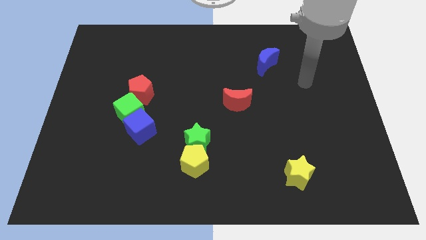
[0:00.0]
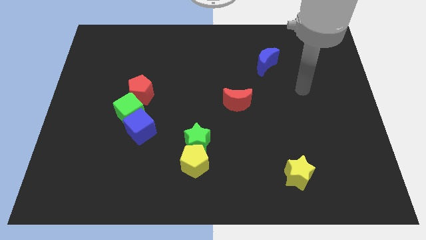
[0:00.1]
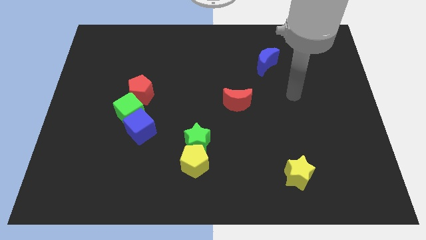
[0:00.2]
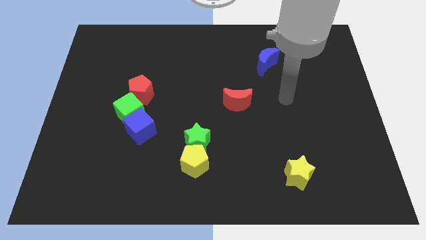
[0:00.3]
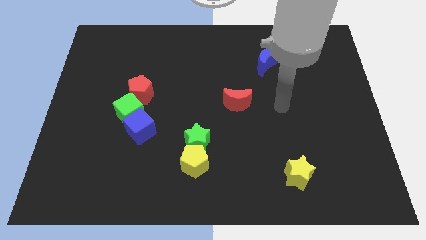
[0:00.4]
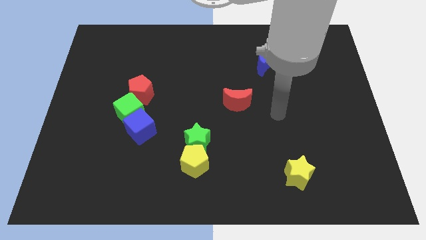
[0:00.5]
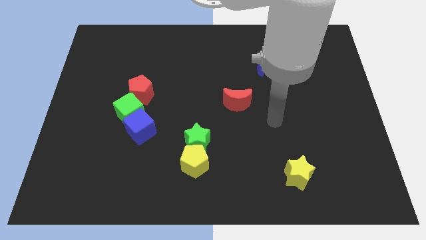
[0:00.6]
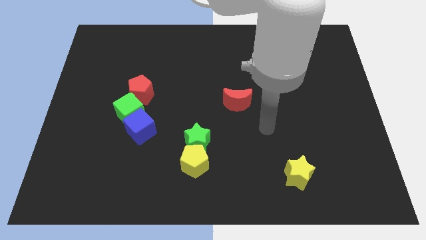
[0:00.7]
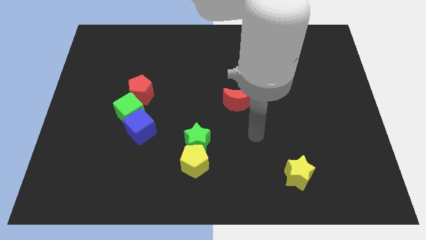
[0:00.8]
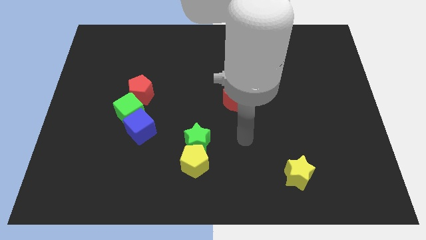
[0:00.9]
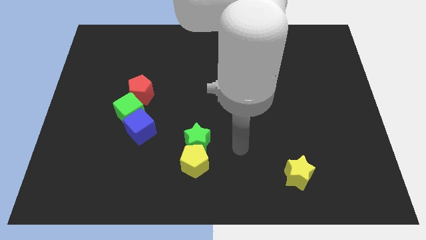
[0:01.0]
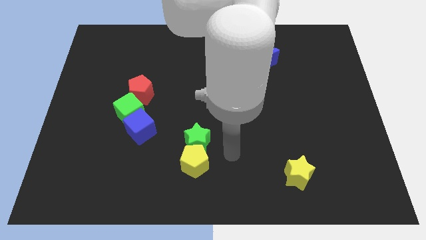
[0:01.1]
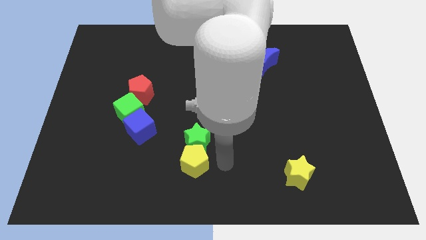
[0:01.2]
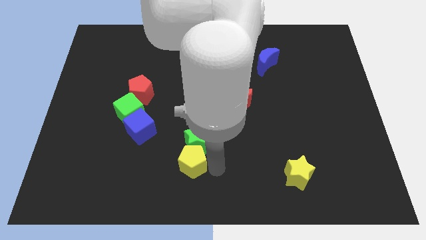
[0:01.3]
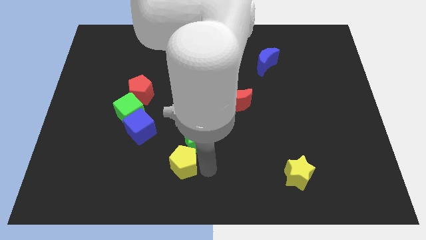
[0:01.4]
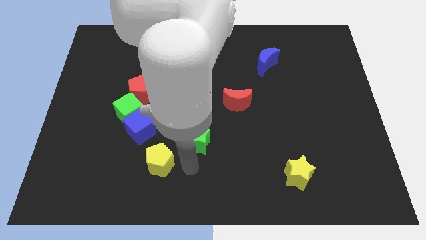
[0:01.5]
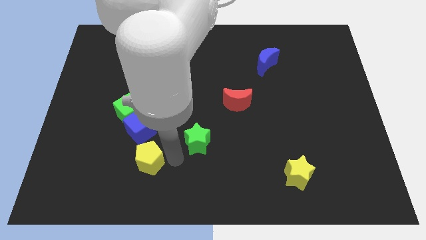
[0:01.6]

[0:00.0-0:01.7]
move the green star away from the yellow pentagon

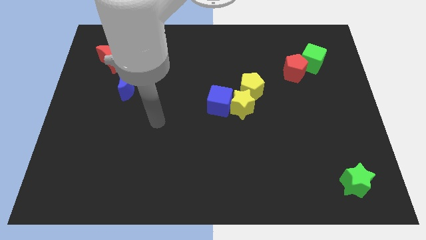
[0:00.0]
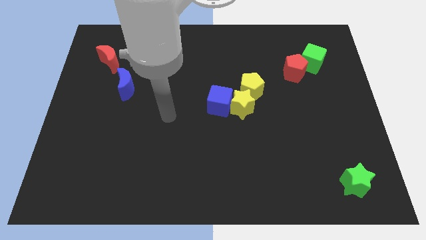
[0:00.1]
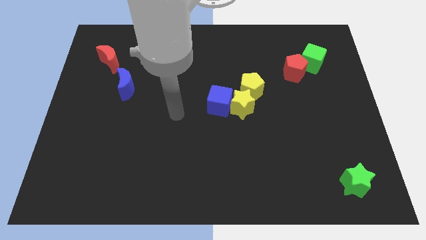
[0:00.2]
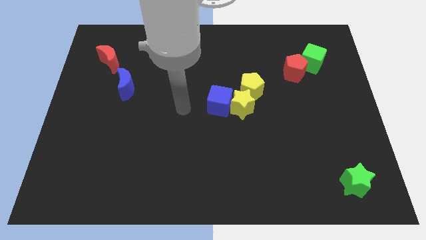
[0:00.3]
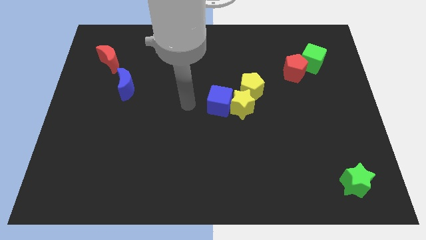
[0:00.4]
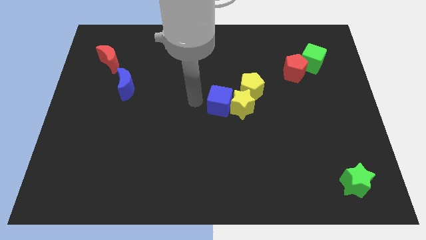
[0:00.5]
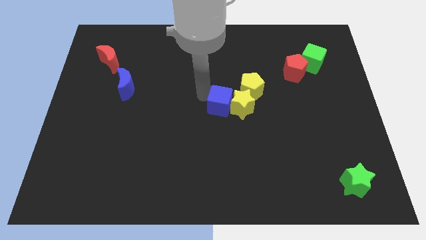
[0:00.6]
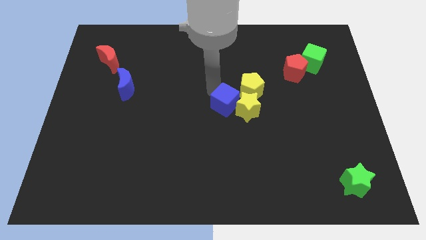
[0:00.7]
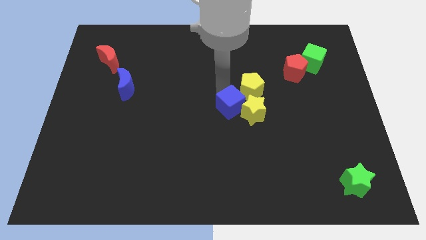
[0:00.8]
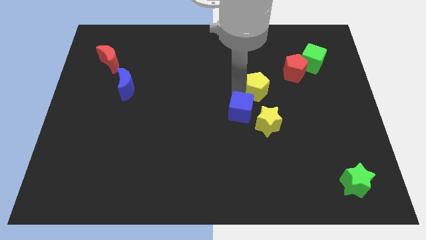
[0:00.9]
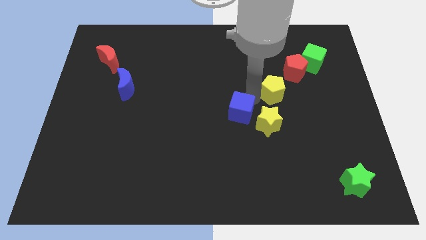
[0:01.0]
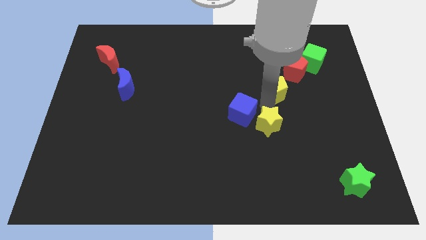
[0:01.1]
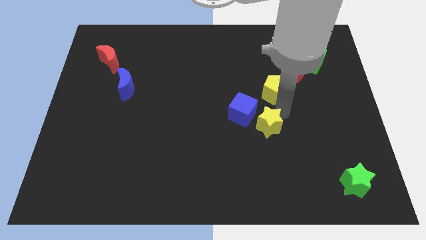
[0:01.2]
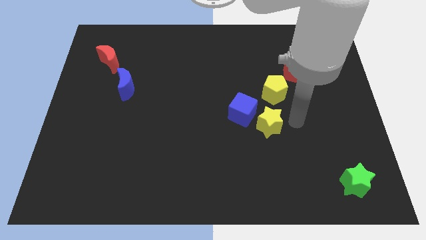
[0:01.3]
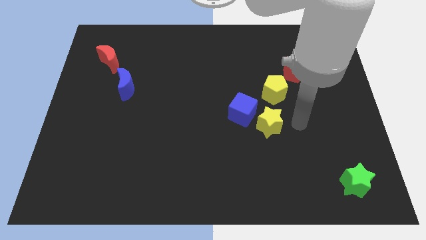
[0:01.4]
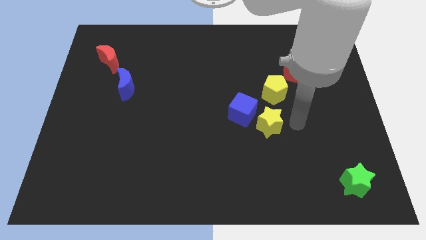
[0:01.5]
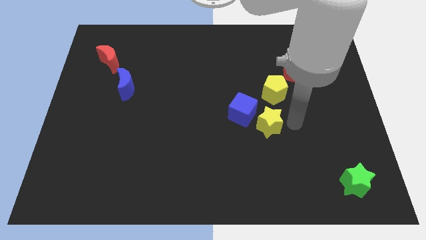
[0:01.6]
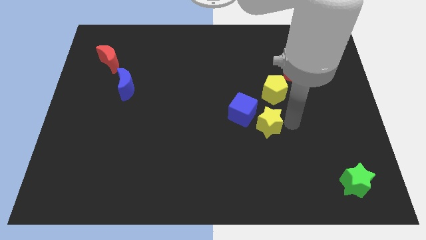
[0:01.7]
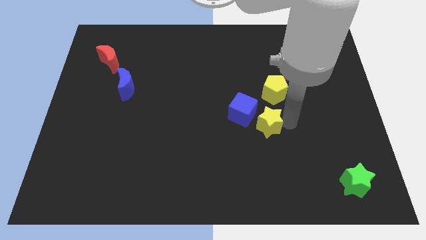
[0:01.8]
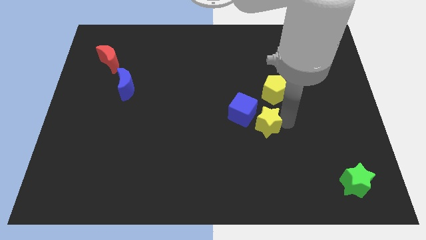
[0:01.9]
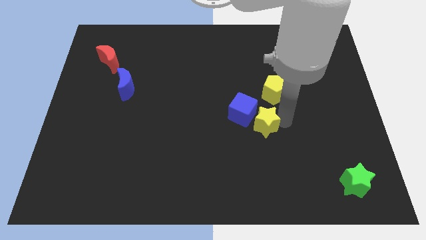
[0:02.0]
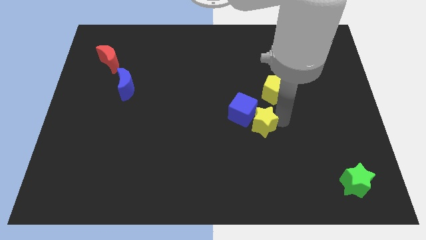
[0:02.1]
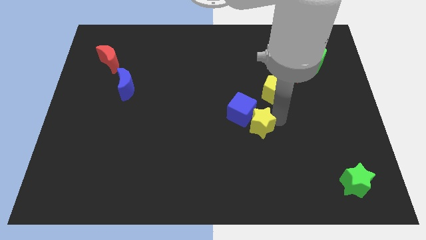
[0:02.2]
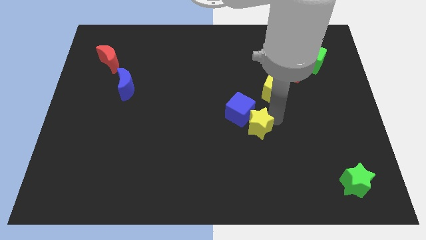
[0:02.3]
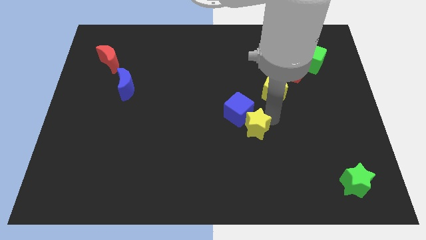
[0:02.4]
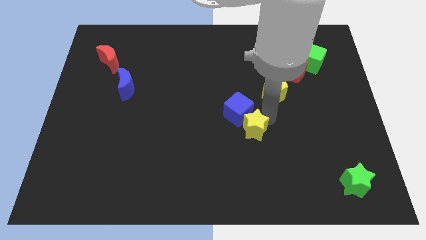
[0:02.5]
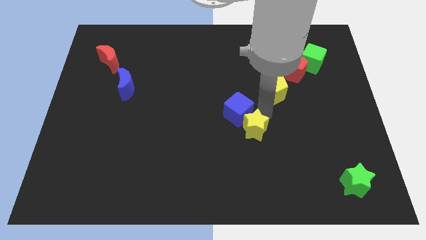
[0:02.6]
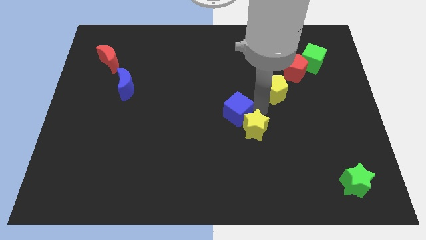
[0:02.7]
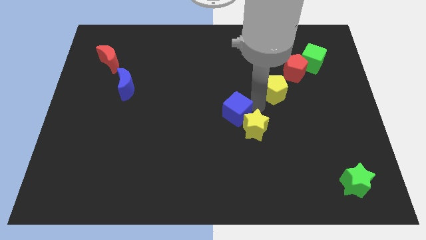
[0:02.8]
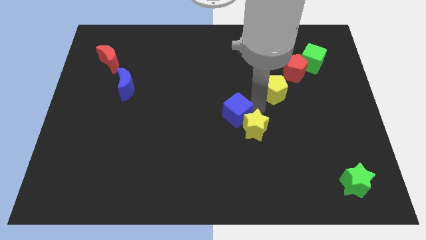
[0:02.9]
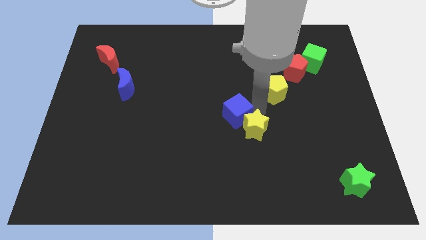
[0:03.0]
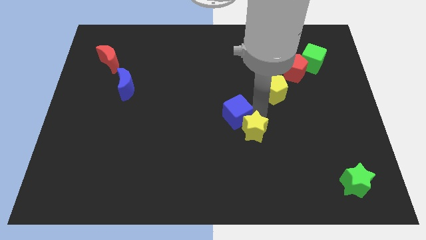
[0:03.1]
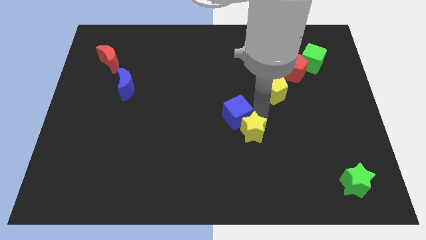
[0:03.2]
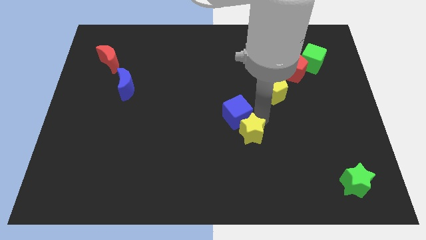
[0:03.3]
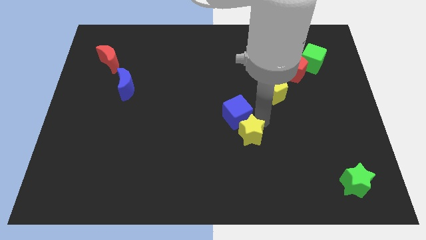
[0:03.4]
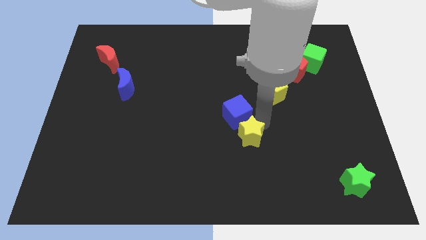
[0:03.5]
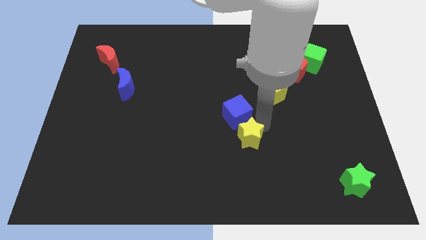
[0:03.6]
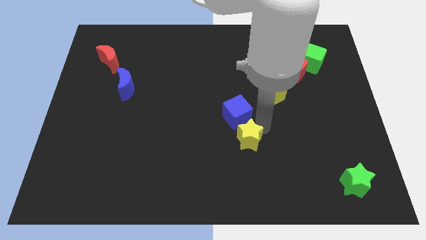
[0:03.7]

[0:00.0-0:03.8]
pull the yellow star apart from the blue cube and yellow pentagon

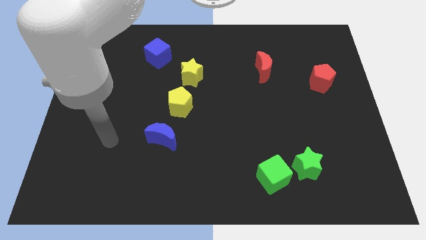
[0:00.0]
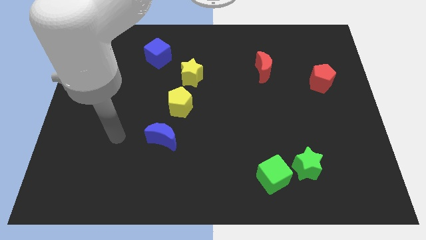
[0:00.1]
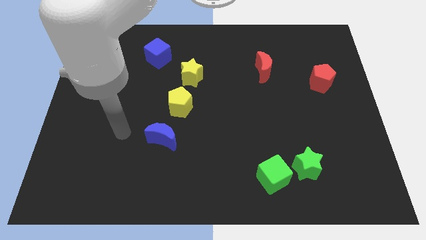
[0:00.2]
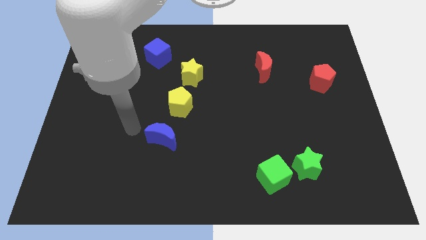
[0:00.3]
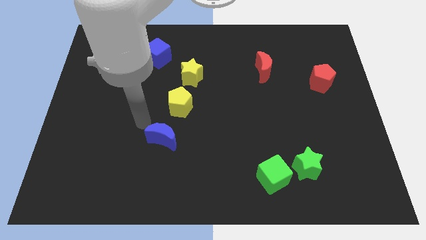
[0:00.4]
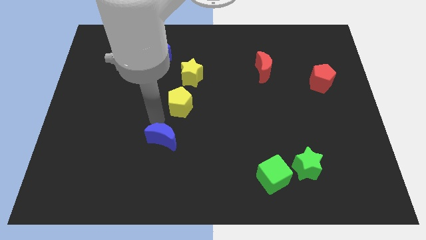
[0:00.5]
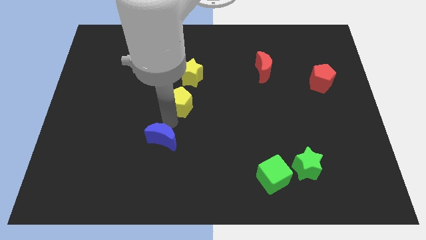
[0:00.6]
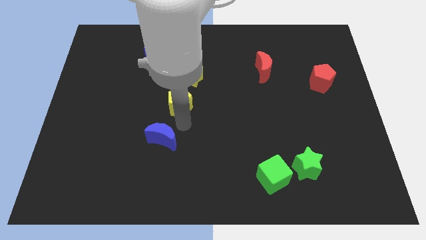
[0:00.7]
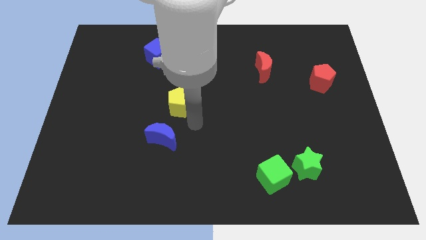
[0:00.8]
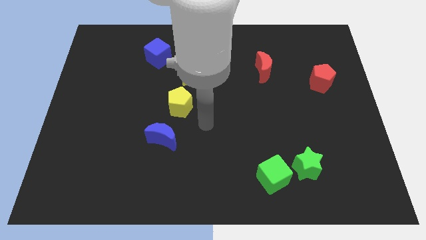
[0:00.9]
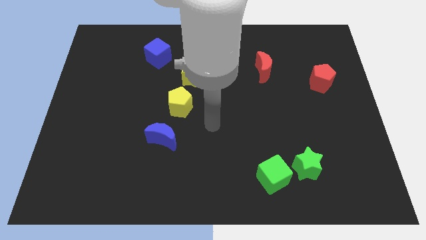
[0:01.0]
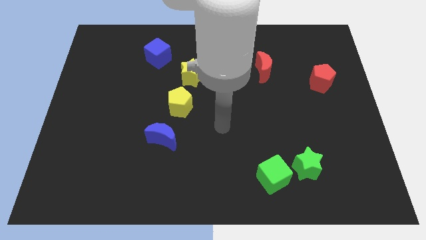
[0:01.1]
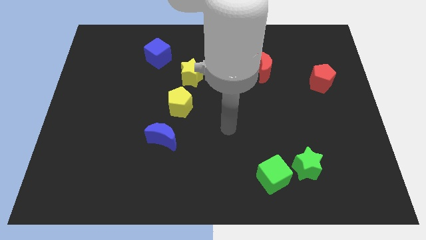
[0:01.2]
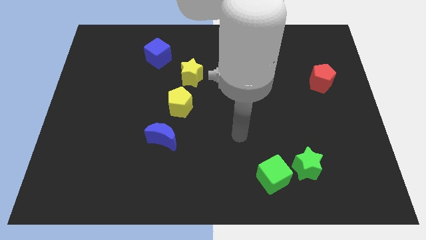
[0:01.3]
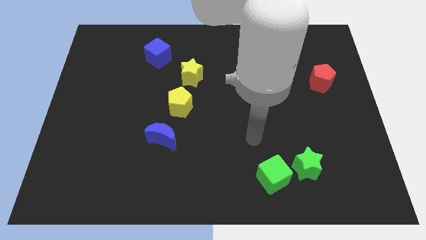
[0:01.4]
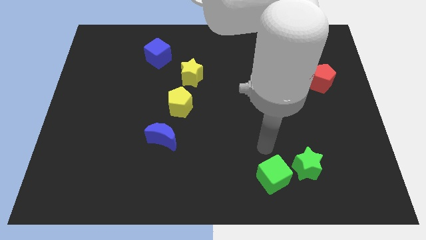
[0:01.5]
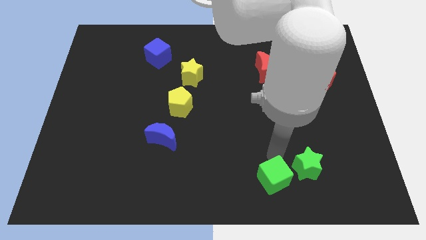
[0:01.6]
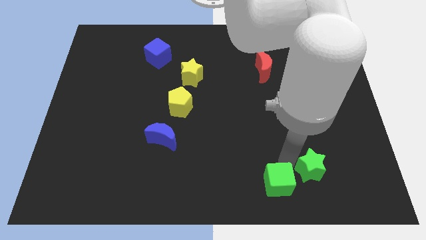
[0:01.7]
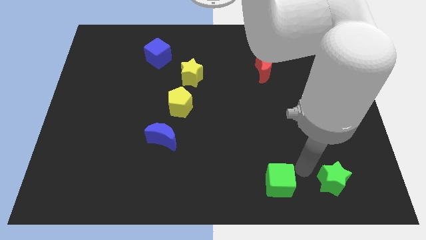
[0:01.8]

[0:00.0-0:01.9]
move the green cube away from the green star

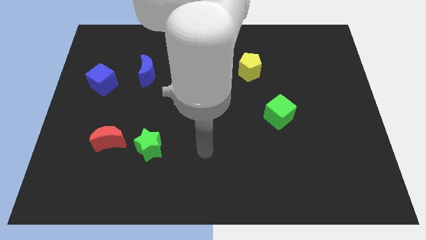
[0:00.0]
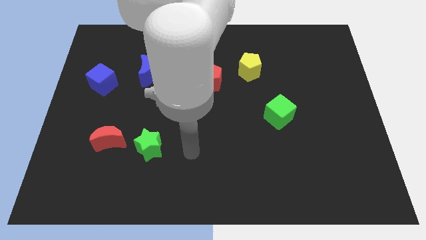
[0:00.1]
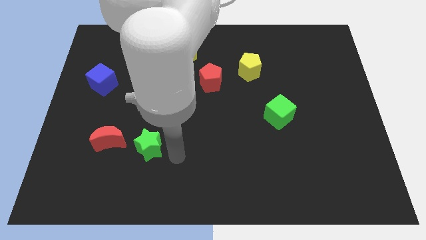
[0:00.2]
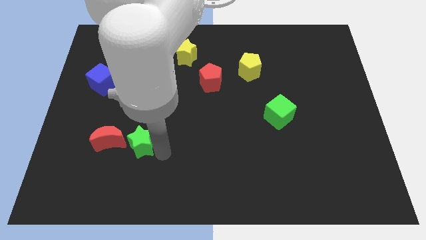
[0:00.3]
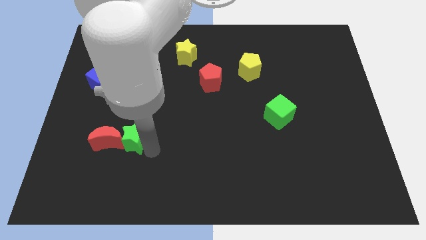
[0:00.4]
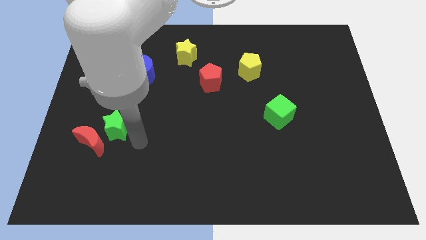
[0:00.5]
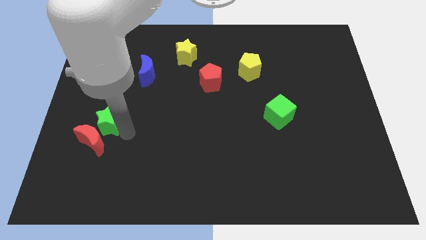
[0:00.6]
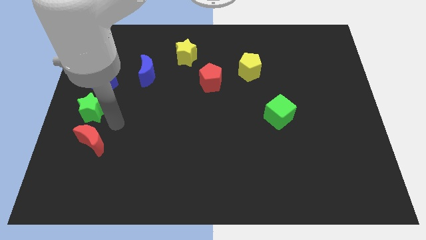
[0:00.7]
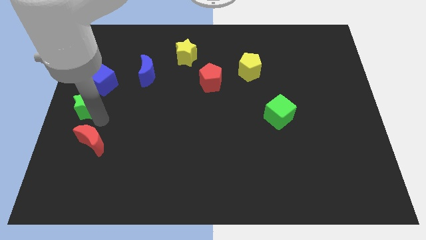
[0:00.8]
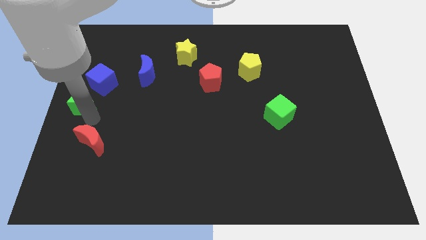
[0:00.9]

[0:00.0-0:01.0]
pull the red moon apart from the green star

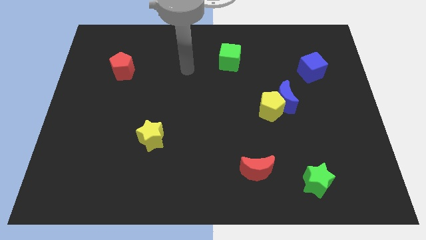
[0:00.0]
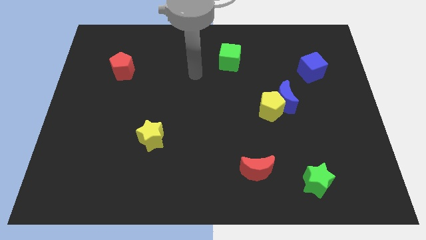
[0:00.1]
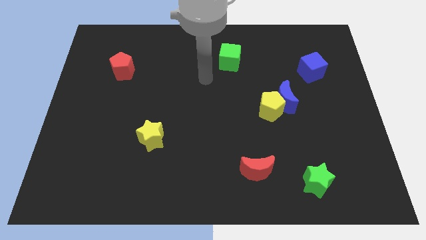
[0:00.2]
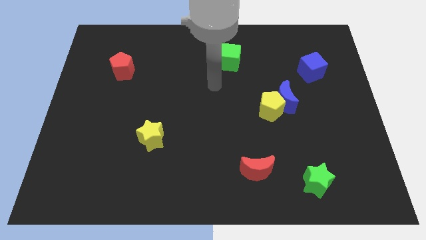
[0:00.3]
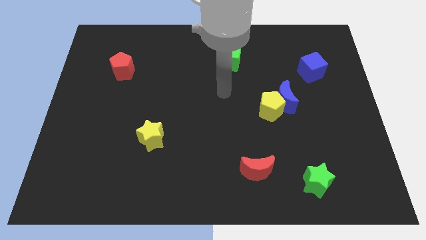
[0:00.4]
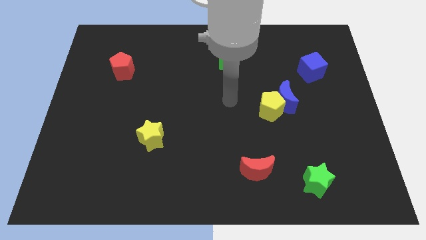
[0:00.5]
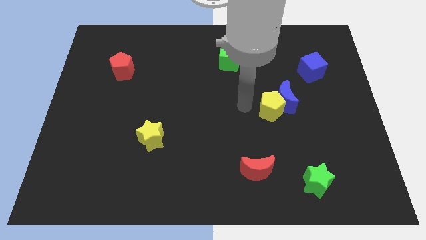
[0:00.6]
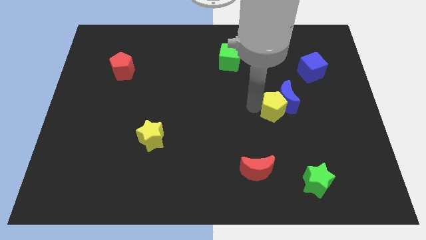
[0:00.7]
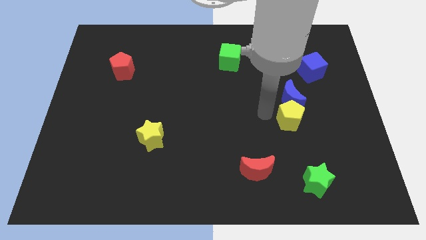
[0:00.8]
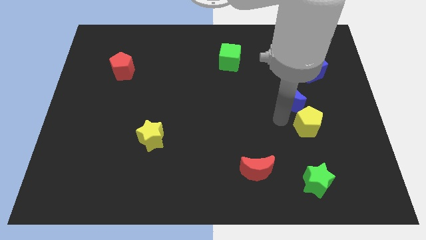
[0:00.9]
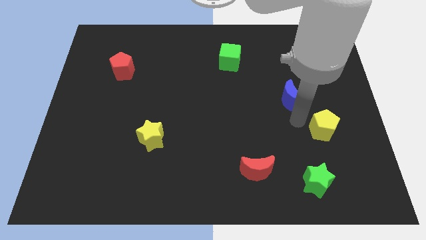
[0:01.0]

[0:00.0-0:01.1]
separate the blue moon from the yellow pentagon
